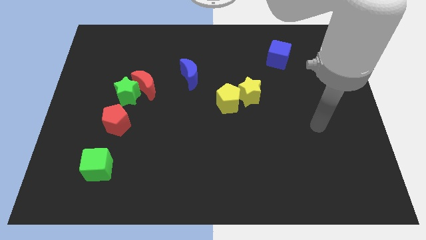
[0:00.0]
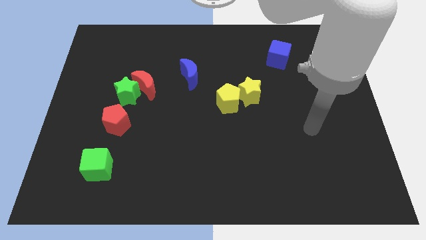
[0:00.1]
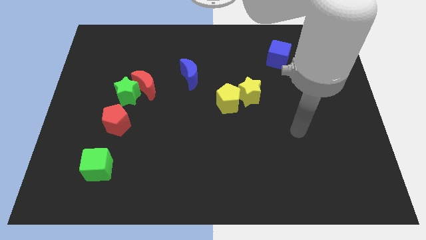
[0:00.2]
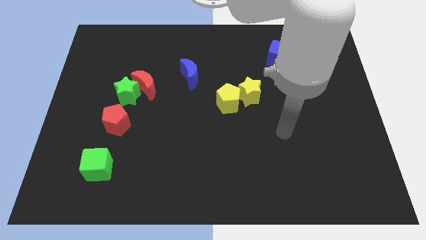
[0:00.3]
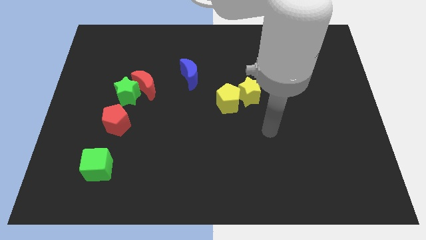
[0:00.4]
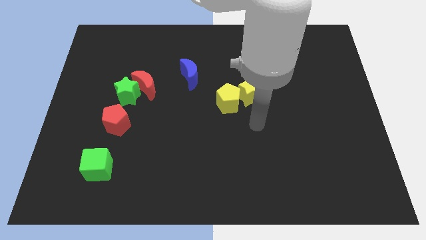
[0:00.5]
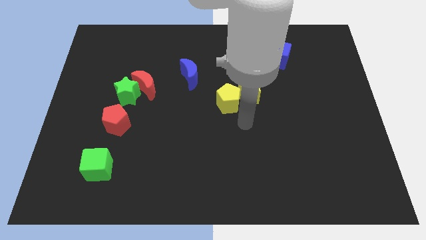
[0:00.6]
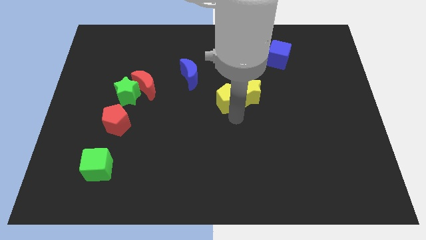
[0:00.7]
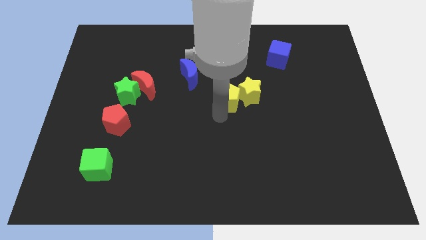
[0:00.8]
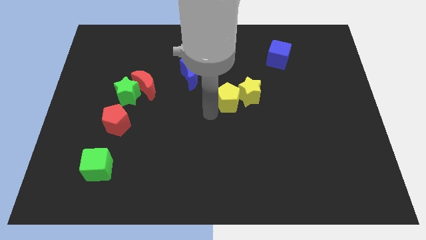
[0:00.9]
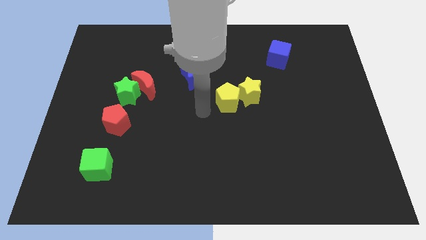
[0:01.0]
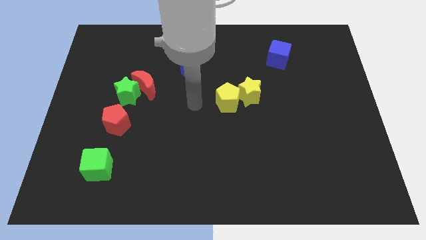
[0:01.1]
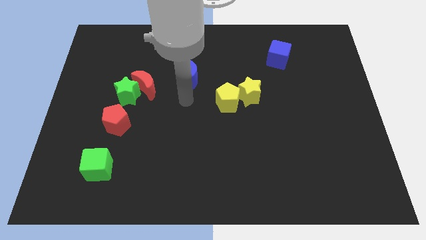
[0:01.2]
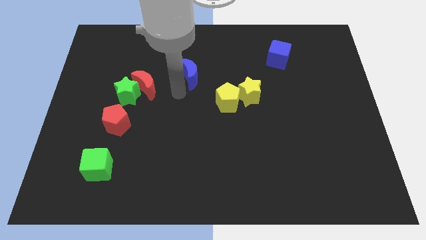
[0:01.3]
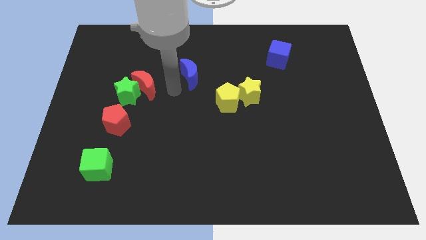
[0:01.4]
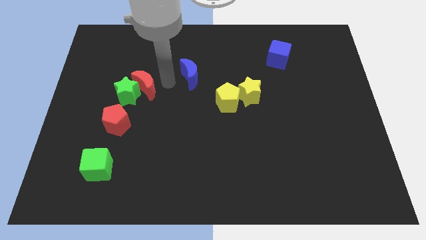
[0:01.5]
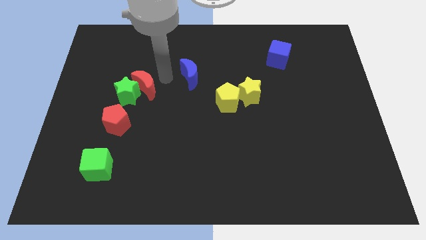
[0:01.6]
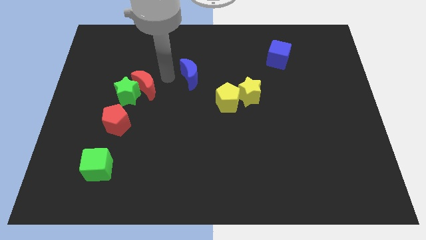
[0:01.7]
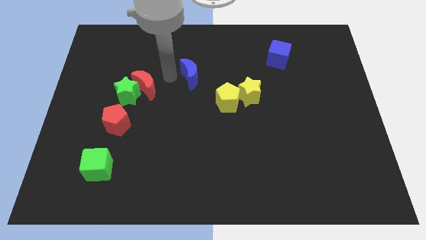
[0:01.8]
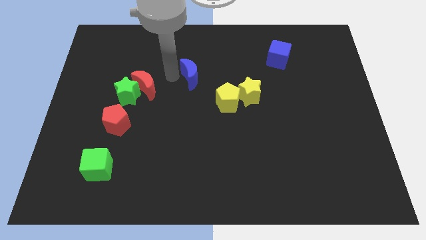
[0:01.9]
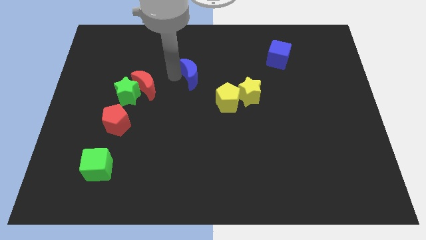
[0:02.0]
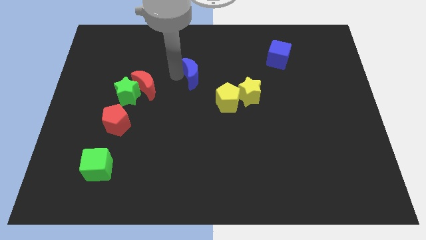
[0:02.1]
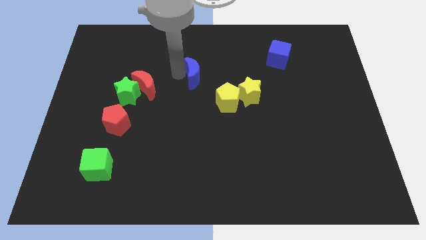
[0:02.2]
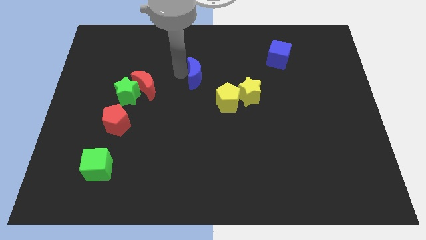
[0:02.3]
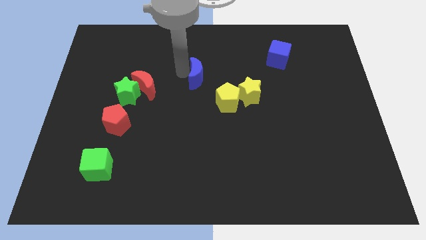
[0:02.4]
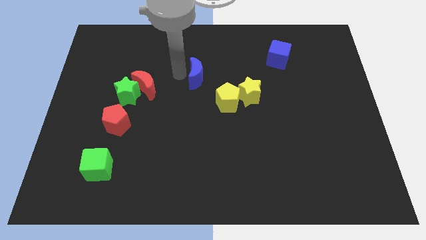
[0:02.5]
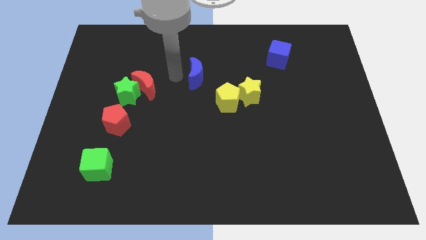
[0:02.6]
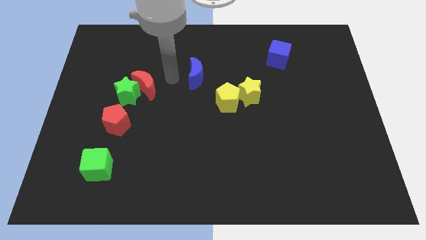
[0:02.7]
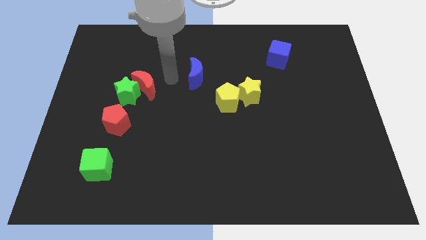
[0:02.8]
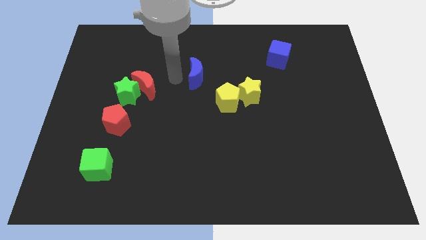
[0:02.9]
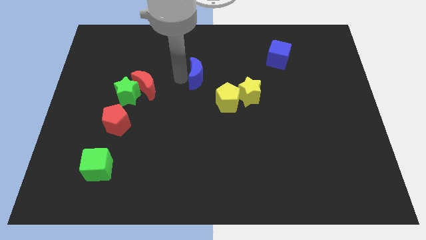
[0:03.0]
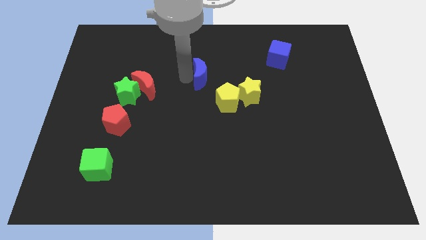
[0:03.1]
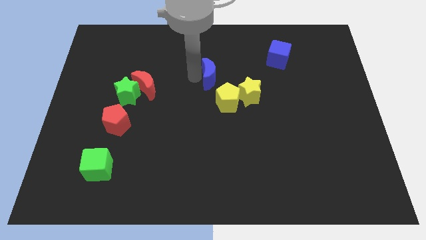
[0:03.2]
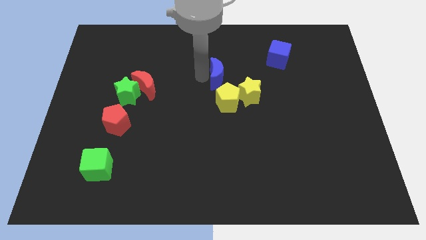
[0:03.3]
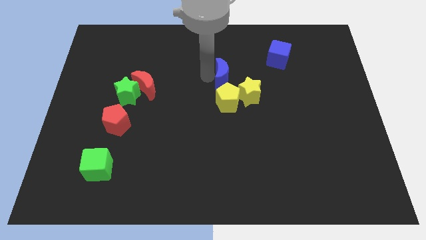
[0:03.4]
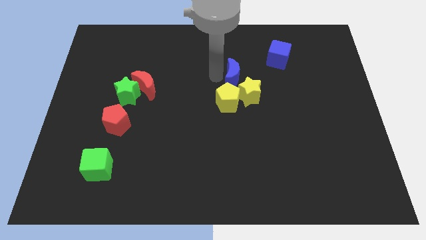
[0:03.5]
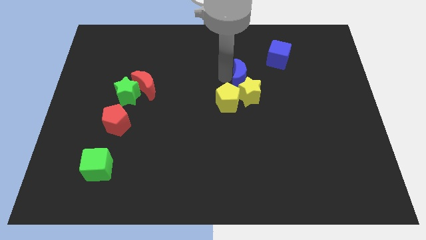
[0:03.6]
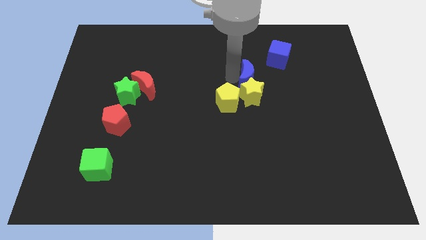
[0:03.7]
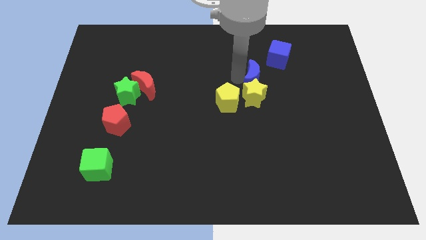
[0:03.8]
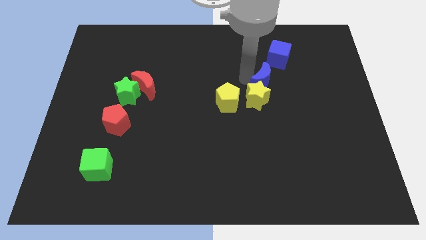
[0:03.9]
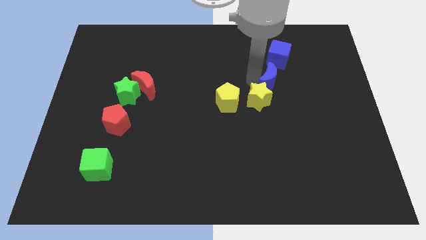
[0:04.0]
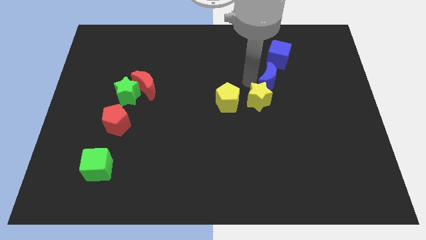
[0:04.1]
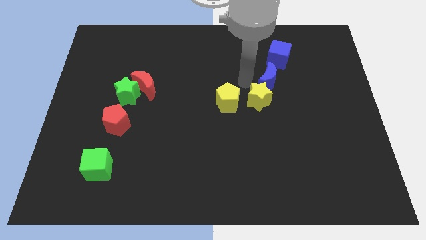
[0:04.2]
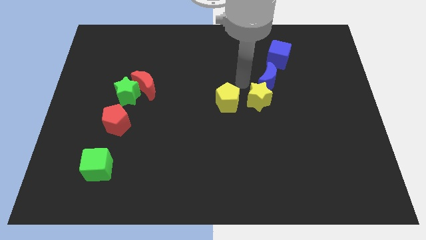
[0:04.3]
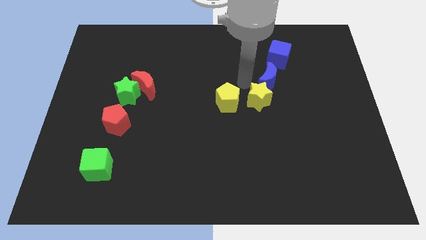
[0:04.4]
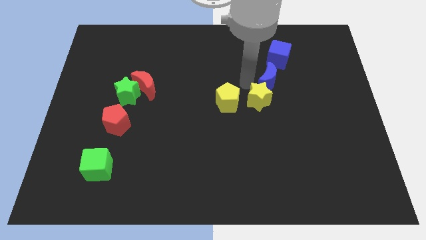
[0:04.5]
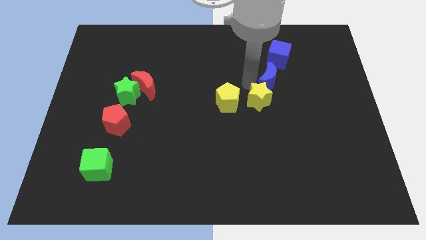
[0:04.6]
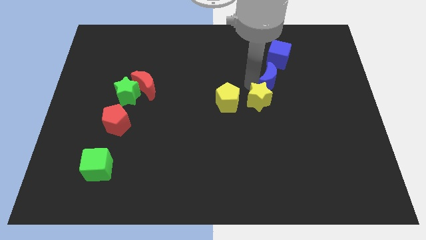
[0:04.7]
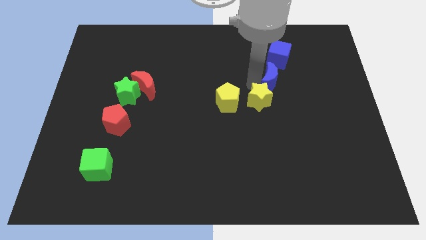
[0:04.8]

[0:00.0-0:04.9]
slide the blue moon right

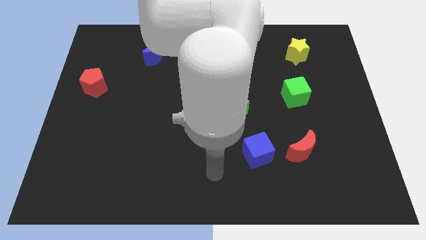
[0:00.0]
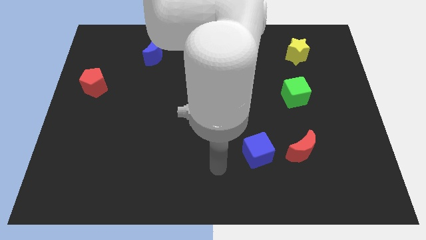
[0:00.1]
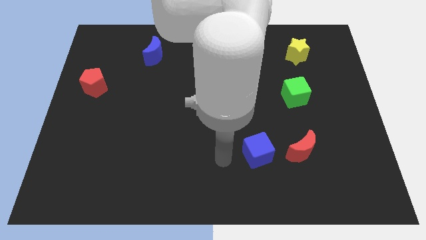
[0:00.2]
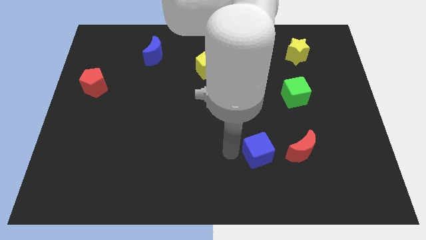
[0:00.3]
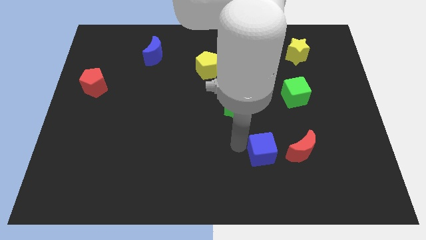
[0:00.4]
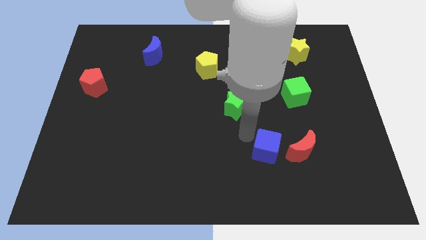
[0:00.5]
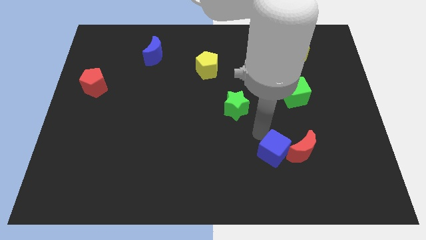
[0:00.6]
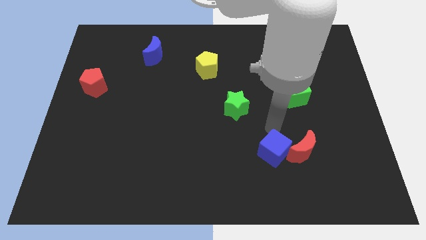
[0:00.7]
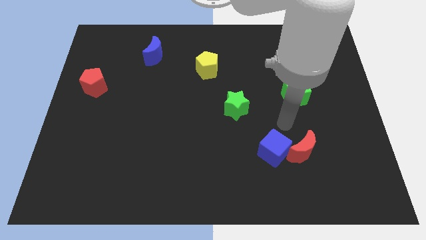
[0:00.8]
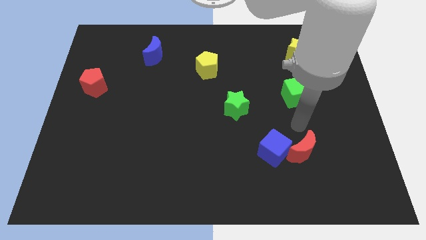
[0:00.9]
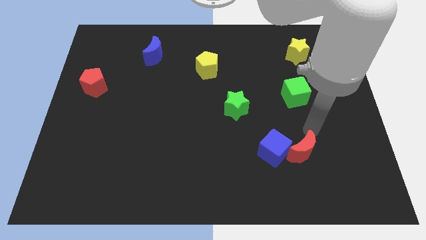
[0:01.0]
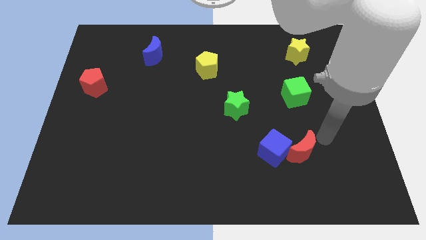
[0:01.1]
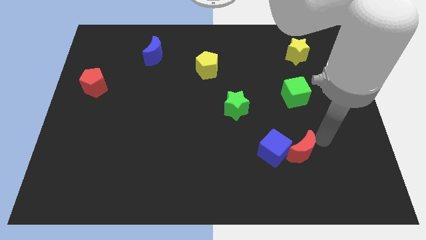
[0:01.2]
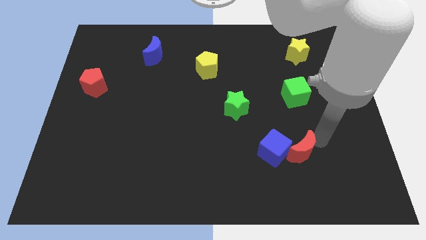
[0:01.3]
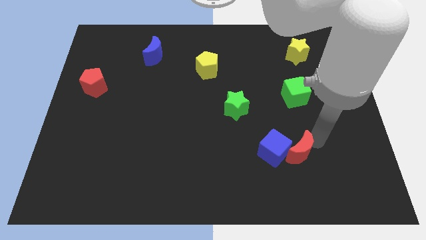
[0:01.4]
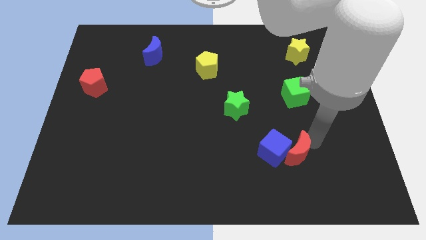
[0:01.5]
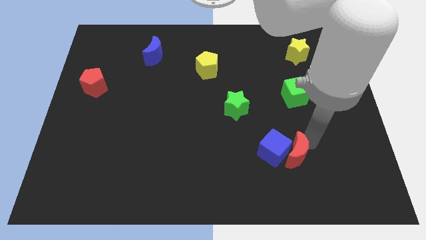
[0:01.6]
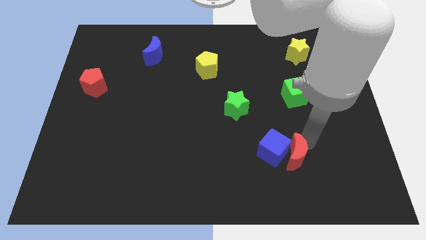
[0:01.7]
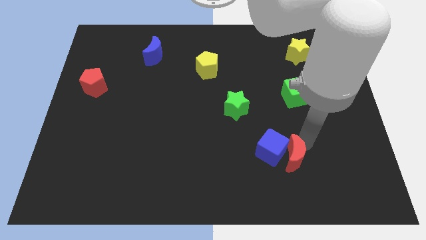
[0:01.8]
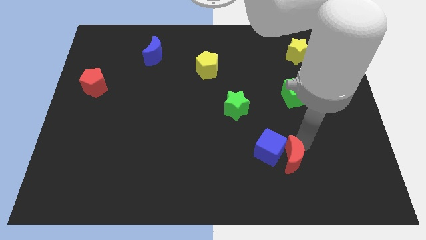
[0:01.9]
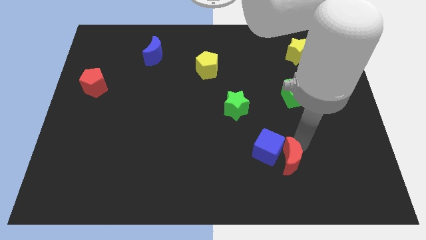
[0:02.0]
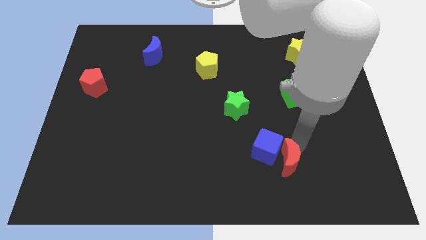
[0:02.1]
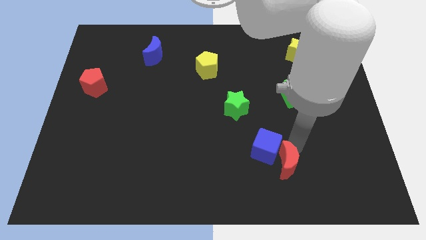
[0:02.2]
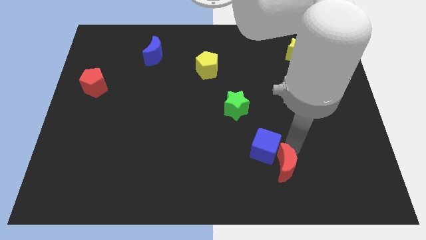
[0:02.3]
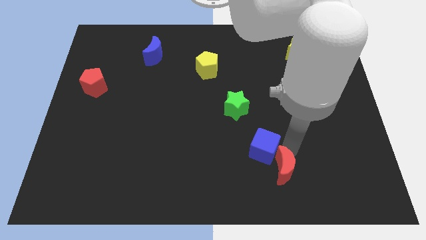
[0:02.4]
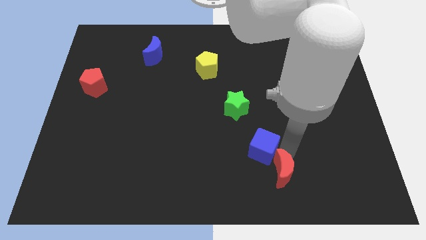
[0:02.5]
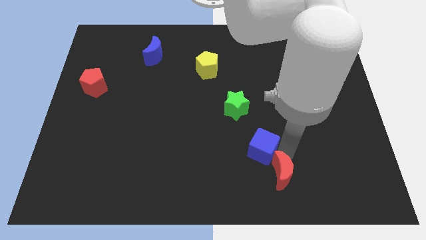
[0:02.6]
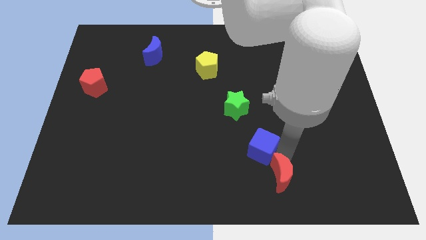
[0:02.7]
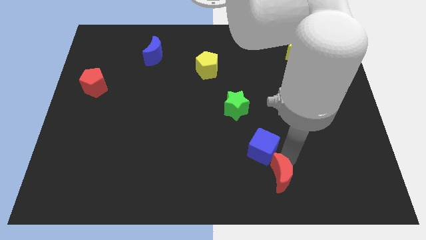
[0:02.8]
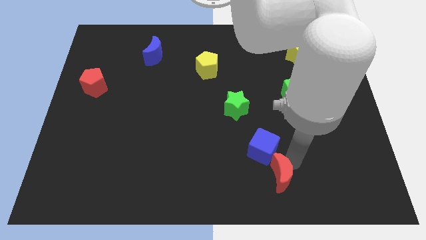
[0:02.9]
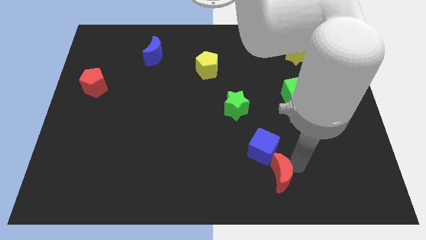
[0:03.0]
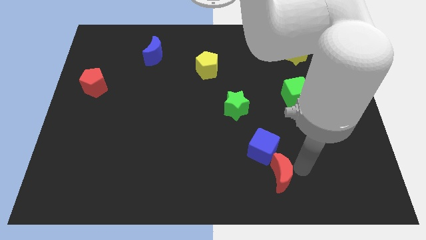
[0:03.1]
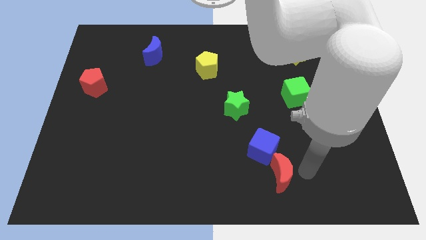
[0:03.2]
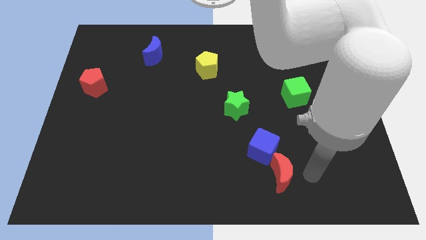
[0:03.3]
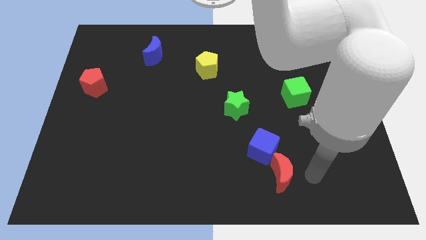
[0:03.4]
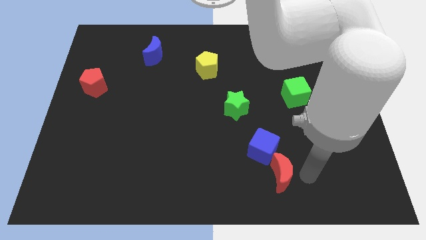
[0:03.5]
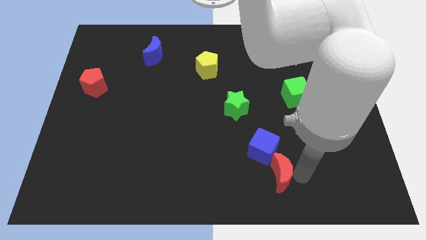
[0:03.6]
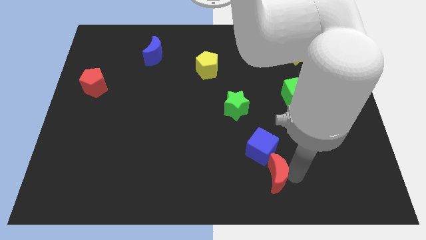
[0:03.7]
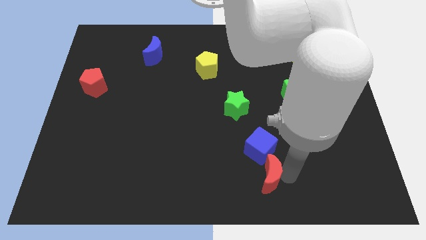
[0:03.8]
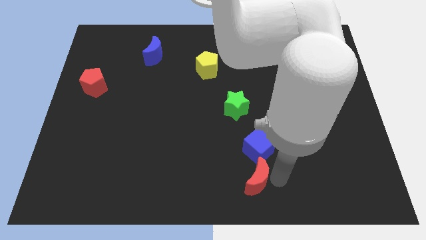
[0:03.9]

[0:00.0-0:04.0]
slide the red moon a little to the left
